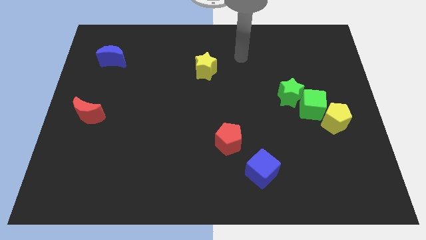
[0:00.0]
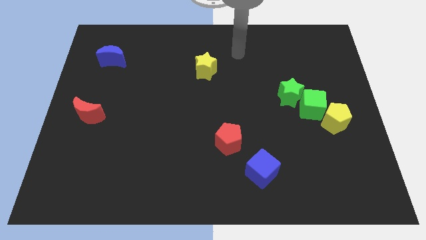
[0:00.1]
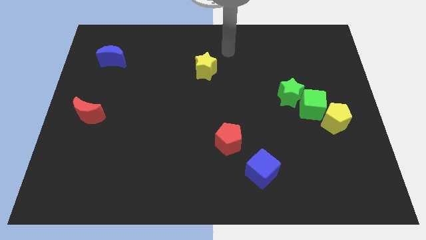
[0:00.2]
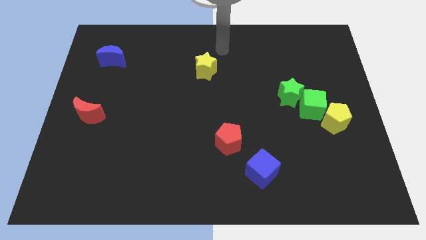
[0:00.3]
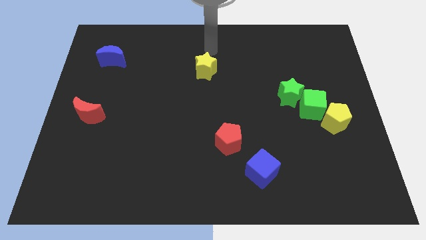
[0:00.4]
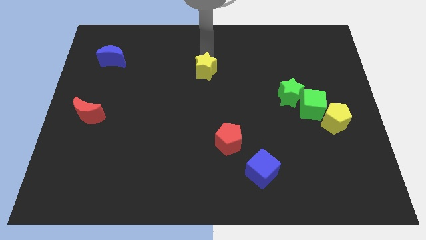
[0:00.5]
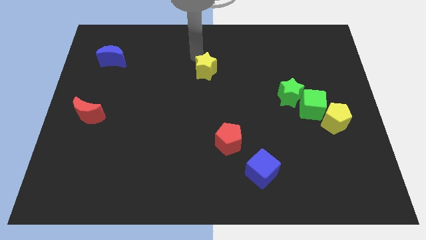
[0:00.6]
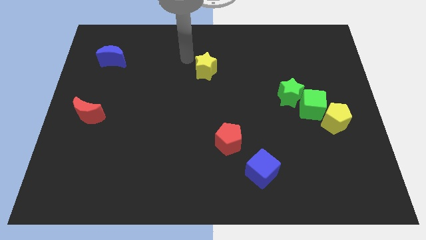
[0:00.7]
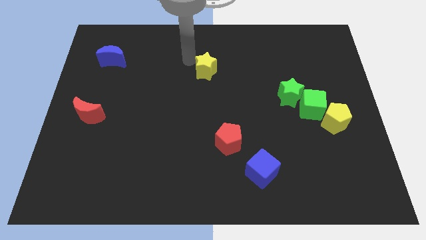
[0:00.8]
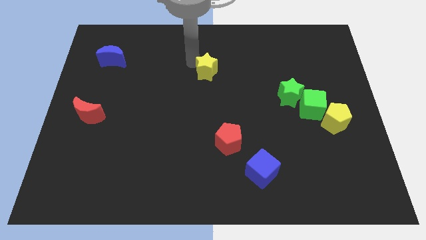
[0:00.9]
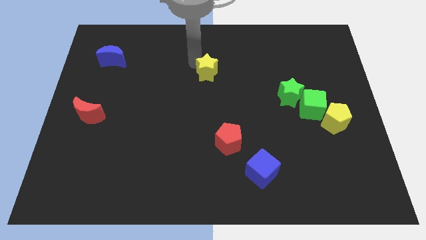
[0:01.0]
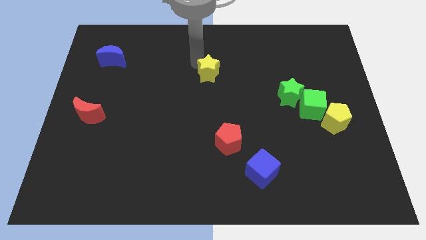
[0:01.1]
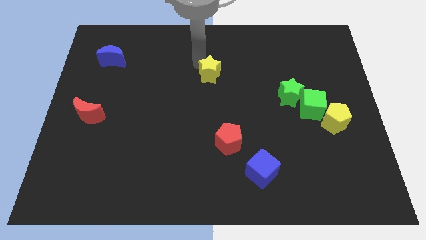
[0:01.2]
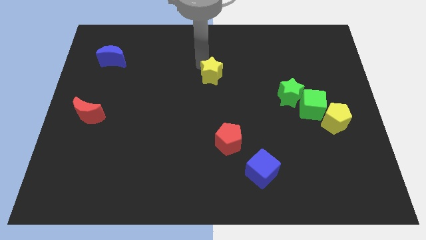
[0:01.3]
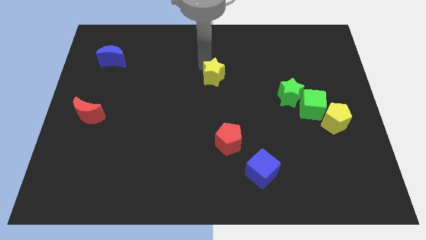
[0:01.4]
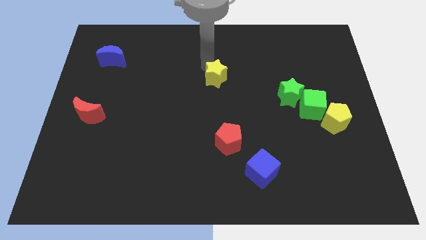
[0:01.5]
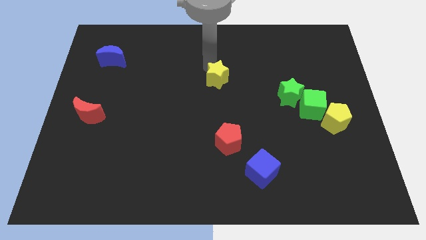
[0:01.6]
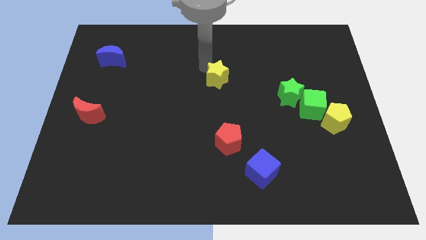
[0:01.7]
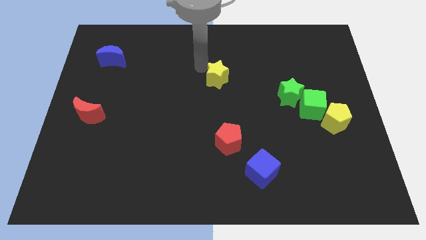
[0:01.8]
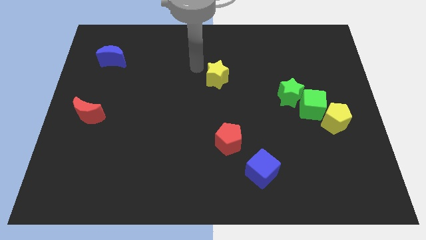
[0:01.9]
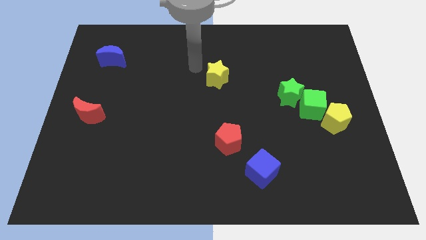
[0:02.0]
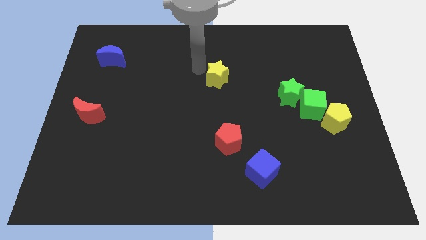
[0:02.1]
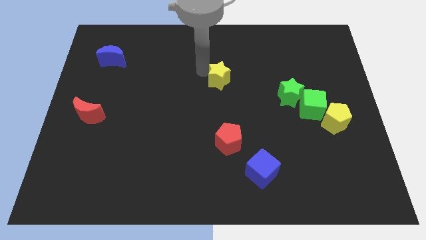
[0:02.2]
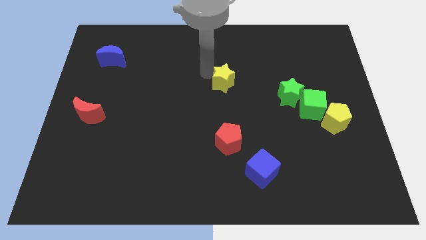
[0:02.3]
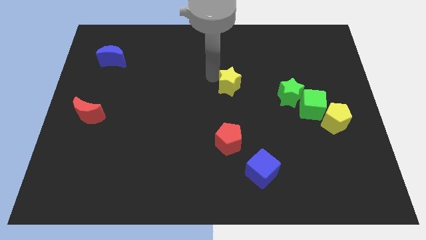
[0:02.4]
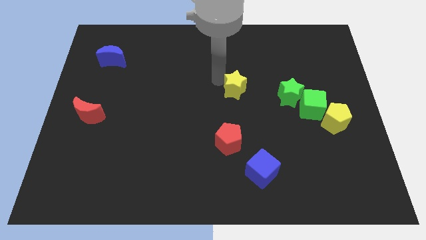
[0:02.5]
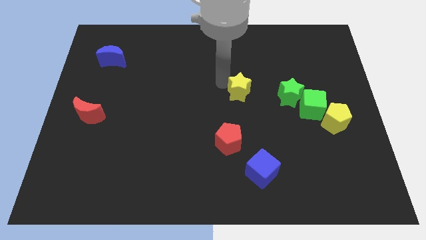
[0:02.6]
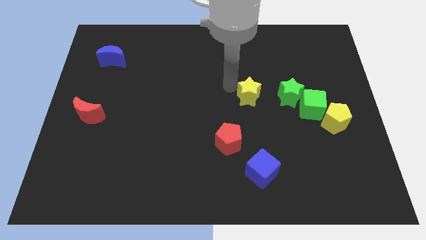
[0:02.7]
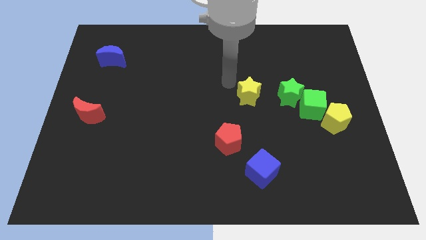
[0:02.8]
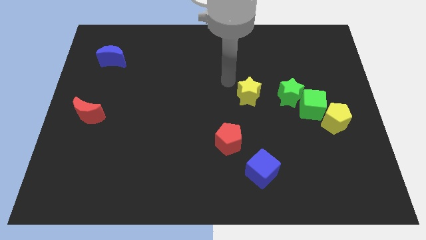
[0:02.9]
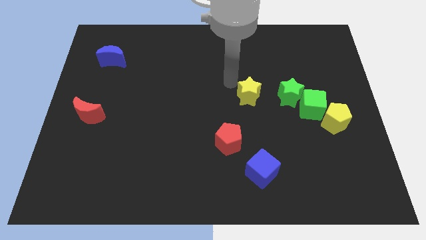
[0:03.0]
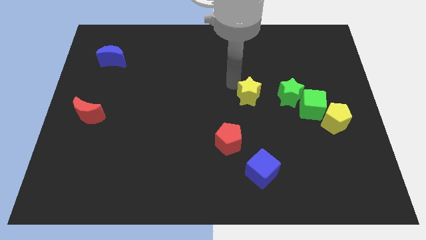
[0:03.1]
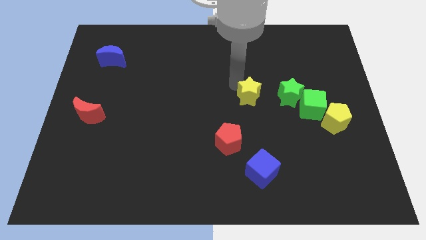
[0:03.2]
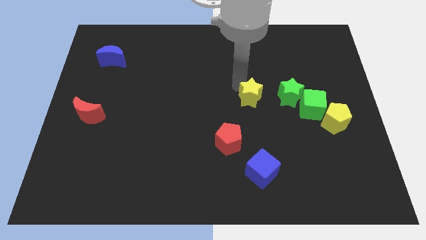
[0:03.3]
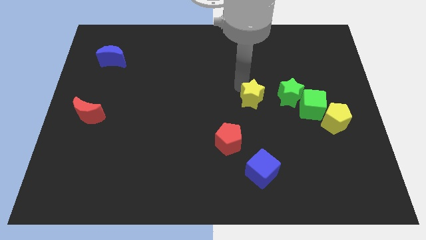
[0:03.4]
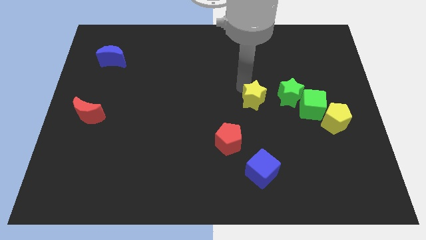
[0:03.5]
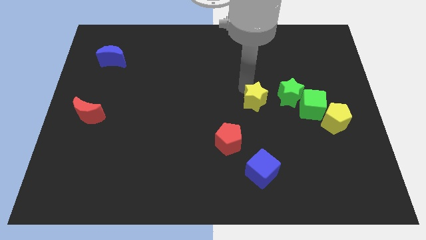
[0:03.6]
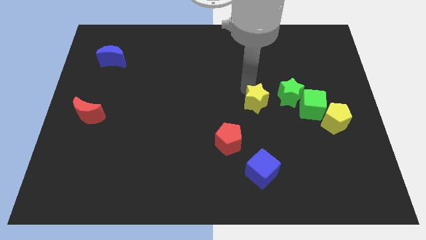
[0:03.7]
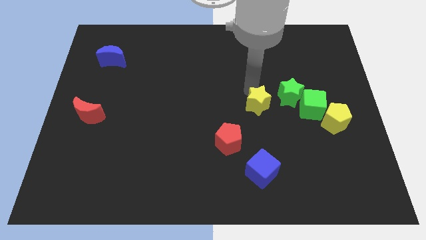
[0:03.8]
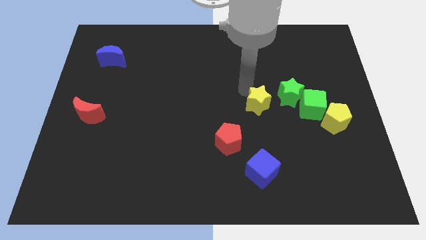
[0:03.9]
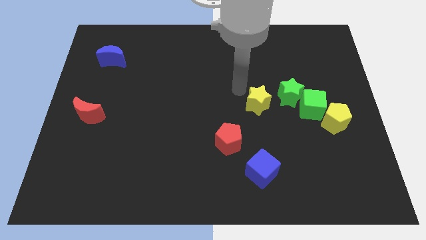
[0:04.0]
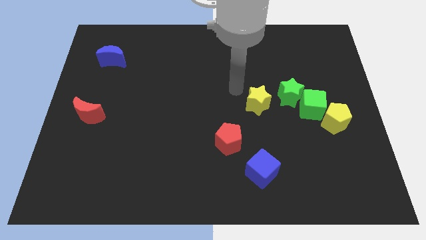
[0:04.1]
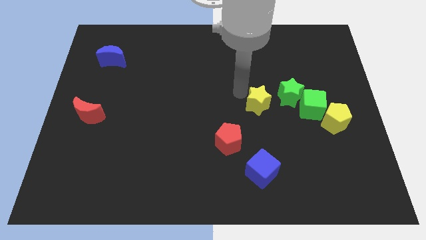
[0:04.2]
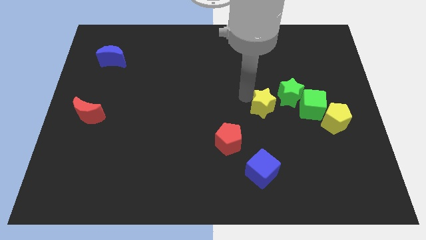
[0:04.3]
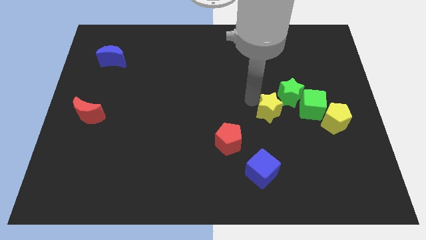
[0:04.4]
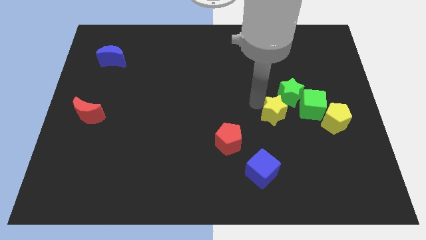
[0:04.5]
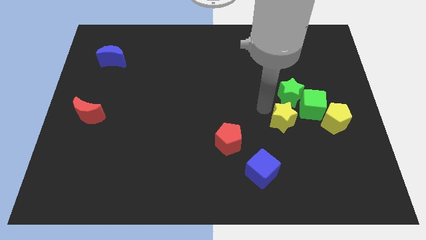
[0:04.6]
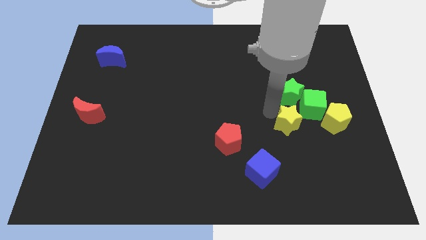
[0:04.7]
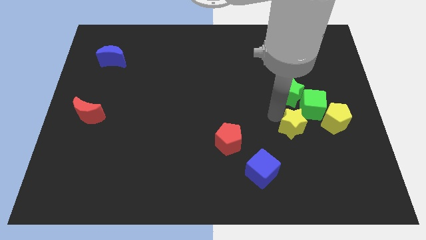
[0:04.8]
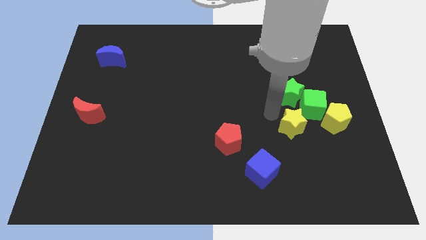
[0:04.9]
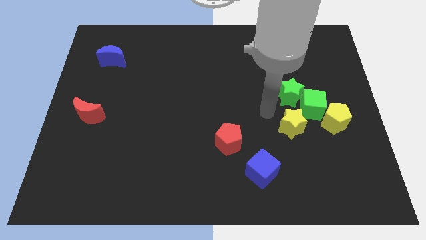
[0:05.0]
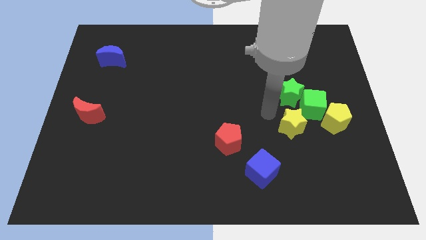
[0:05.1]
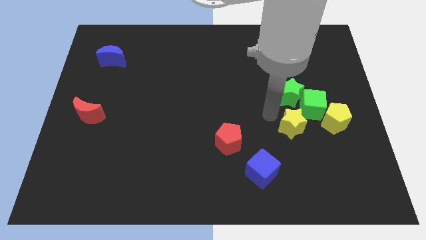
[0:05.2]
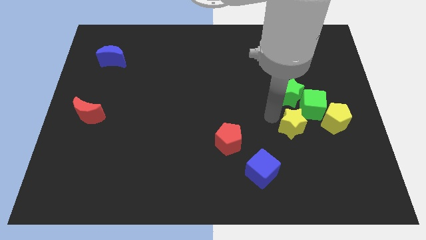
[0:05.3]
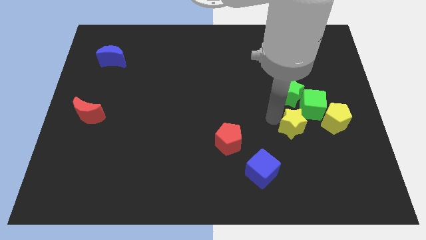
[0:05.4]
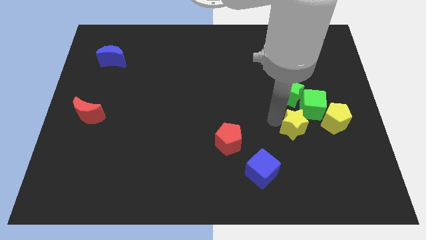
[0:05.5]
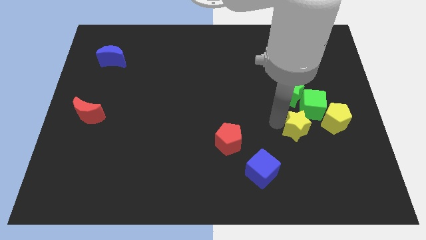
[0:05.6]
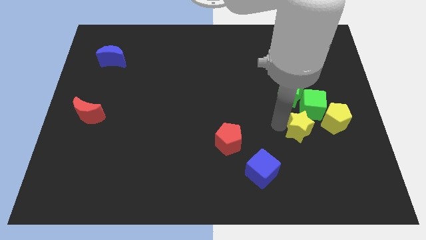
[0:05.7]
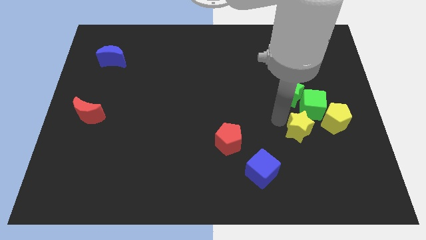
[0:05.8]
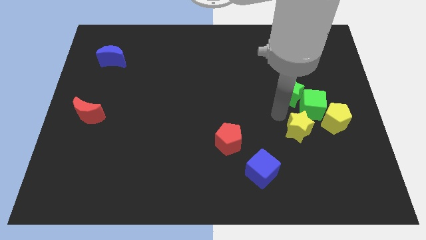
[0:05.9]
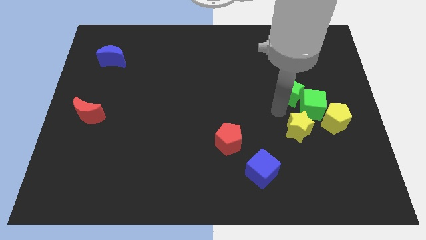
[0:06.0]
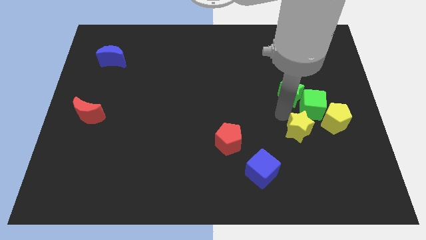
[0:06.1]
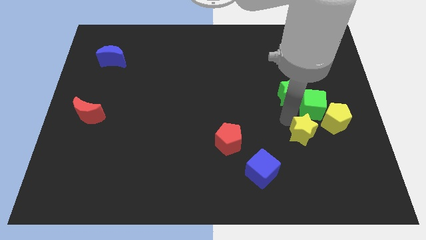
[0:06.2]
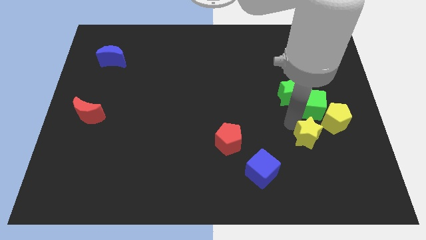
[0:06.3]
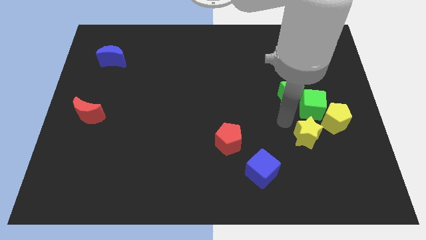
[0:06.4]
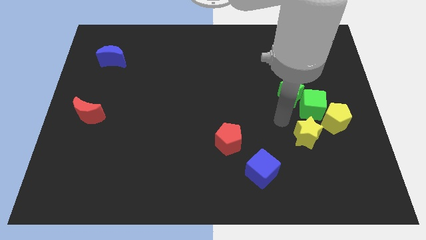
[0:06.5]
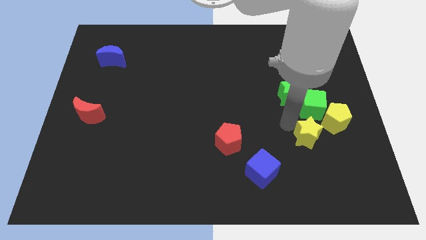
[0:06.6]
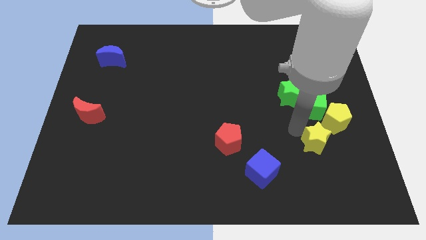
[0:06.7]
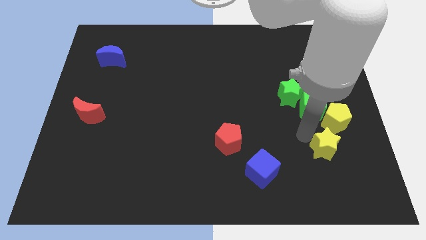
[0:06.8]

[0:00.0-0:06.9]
slide the yellow star to the bottom side of the yellow pentagon
